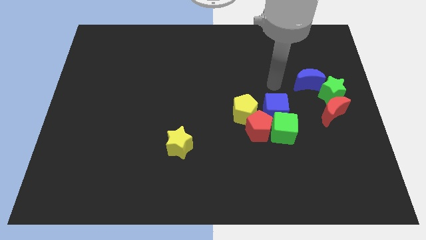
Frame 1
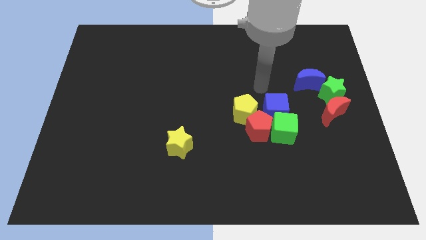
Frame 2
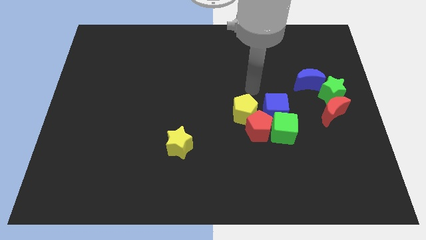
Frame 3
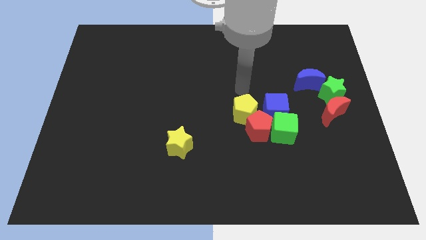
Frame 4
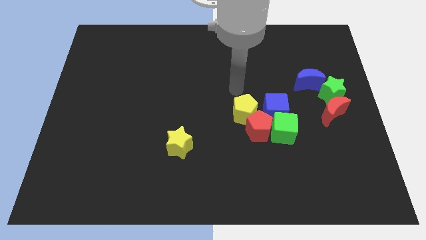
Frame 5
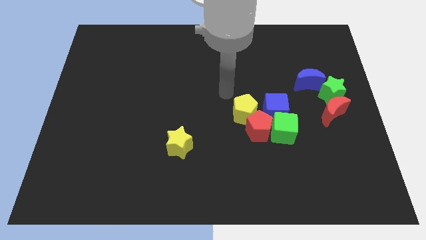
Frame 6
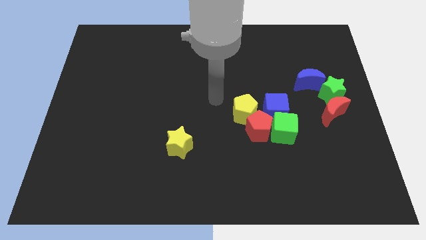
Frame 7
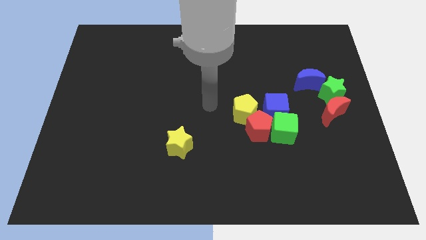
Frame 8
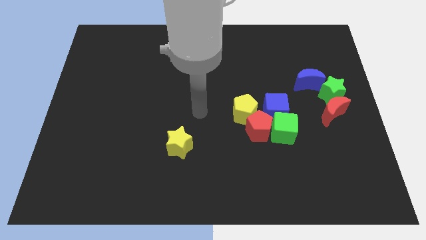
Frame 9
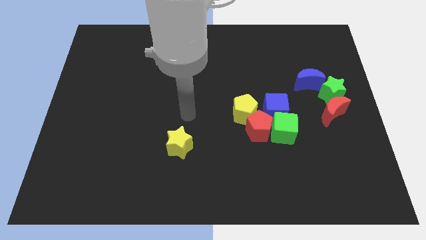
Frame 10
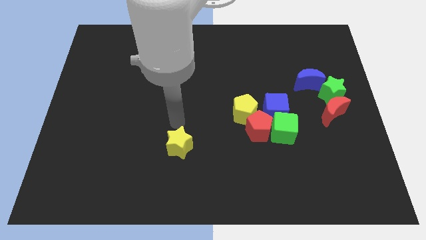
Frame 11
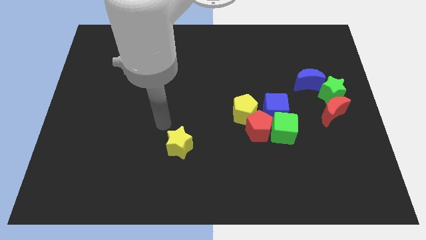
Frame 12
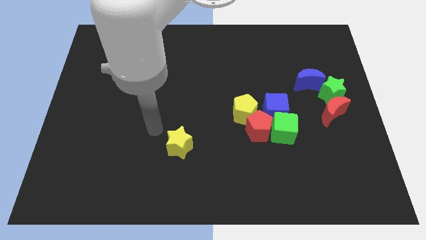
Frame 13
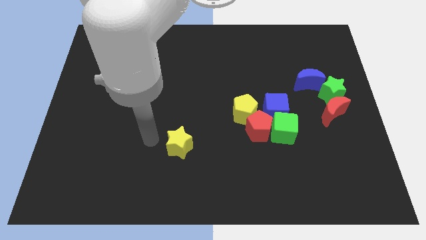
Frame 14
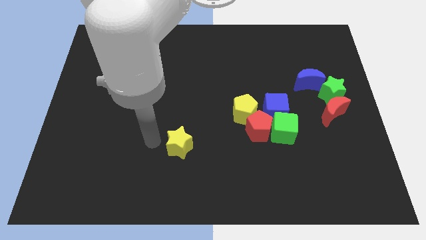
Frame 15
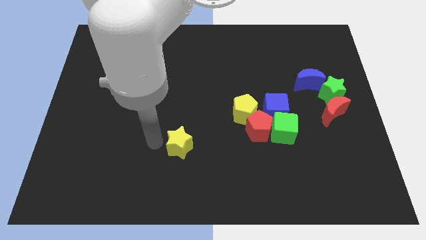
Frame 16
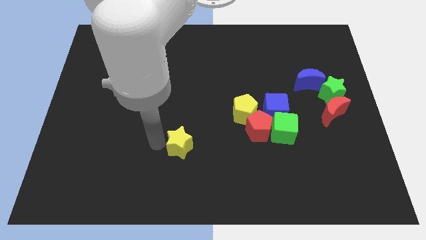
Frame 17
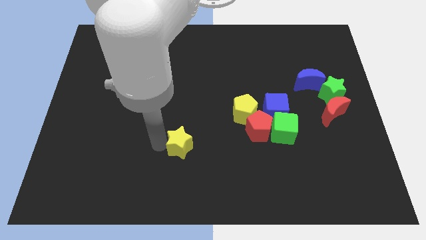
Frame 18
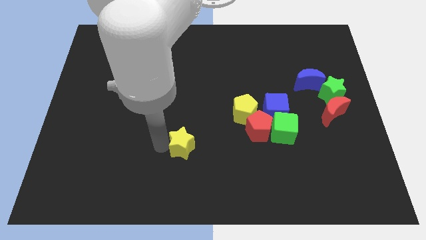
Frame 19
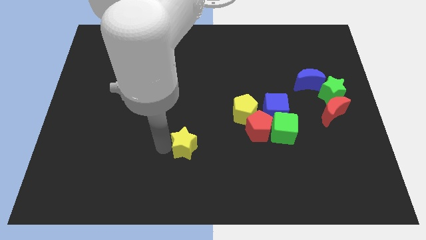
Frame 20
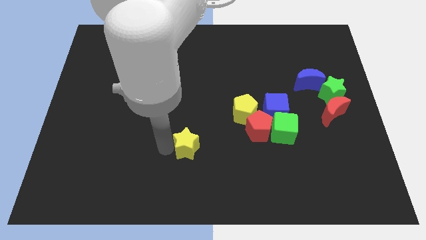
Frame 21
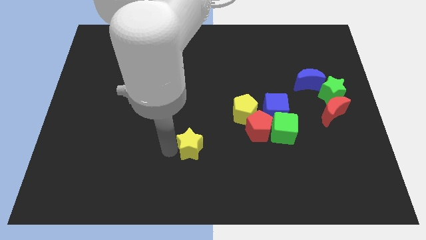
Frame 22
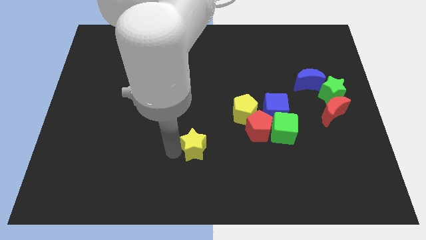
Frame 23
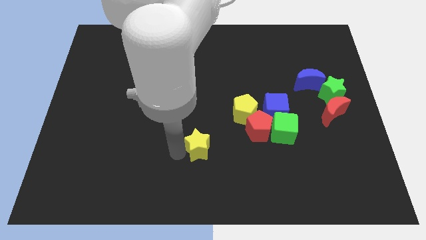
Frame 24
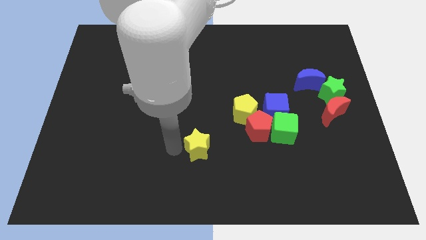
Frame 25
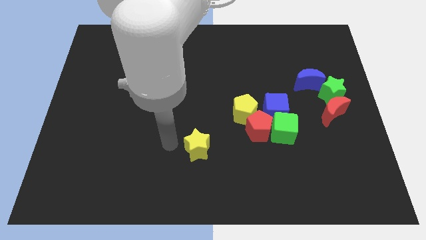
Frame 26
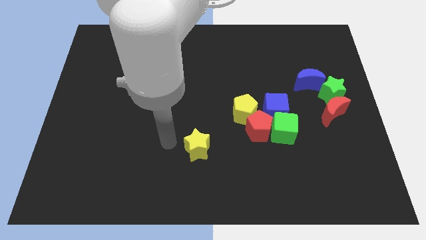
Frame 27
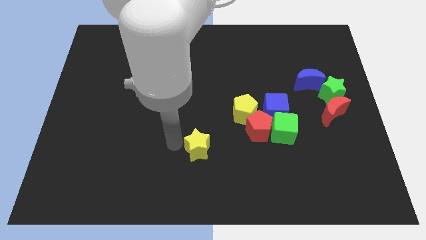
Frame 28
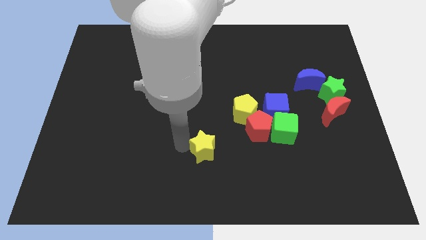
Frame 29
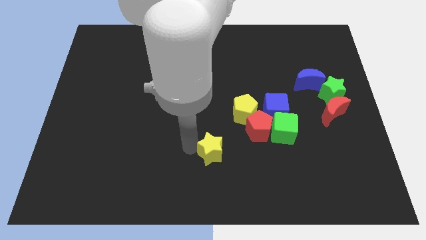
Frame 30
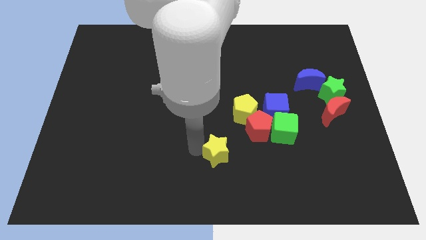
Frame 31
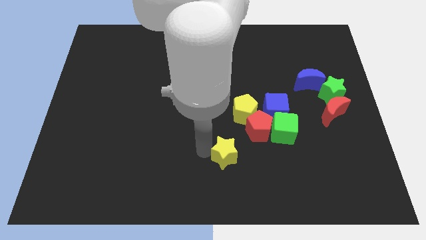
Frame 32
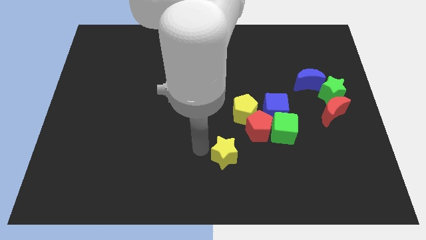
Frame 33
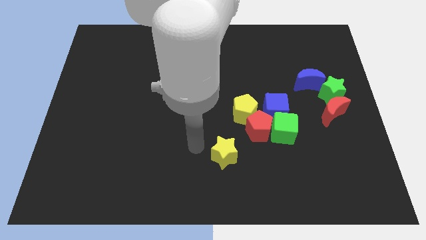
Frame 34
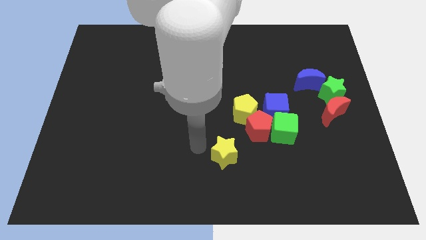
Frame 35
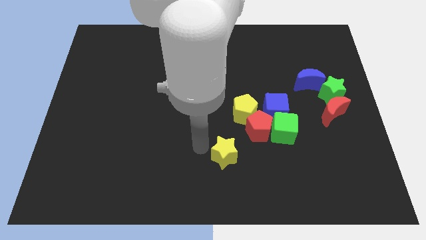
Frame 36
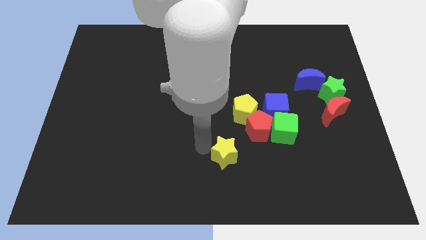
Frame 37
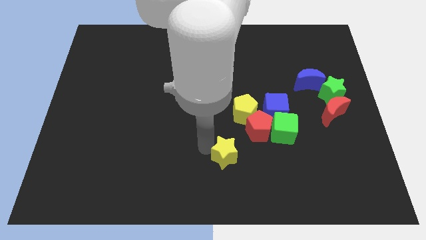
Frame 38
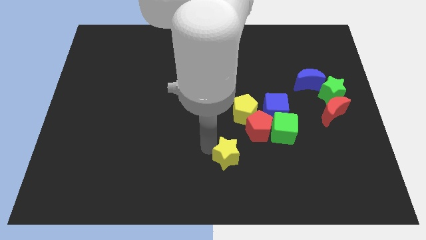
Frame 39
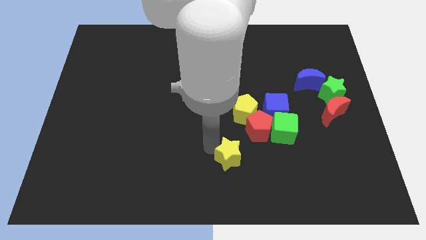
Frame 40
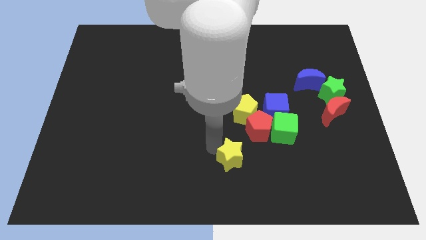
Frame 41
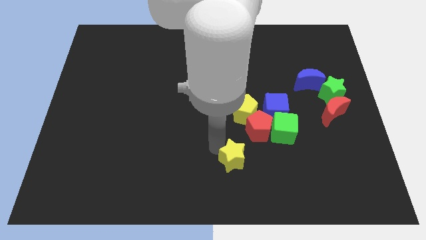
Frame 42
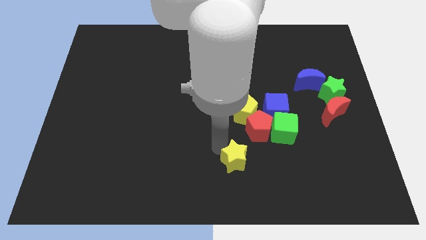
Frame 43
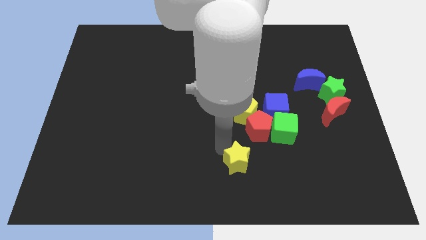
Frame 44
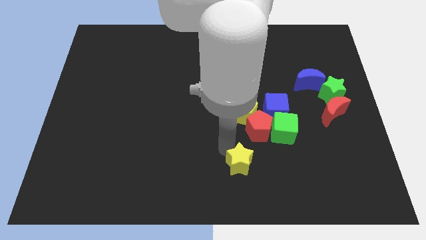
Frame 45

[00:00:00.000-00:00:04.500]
slide the yellow star below the red pentagon

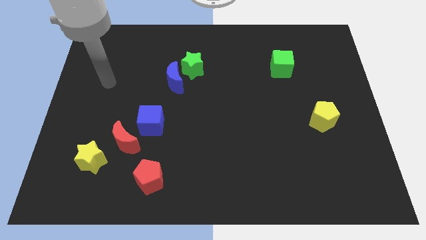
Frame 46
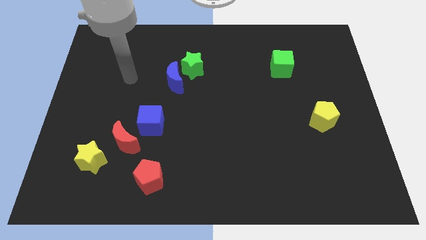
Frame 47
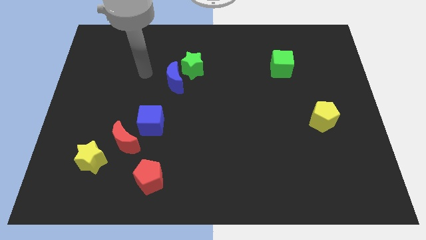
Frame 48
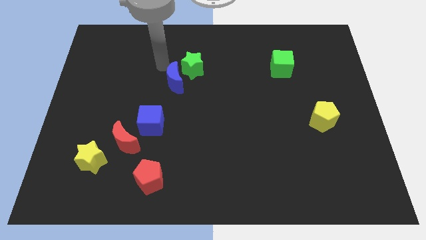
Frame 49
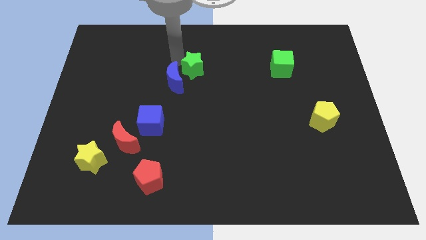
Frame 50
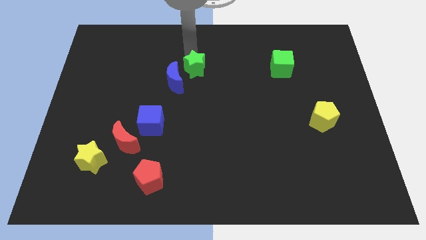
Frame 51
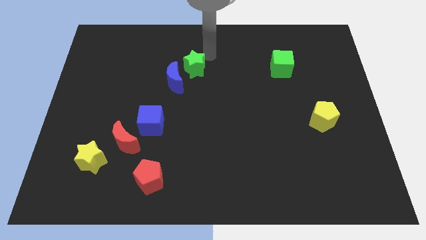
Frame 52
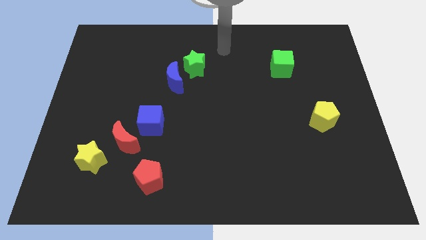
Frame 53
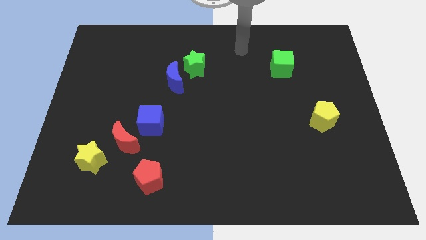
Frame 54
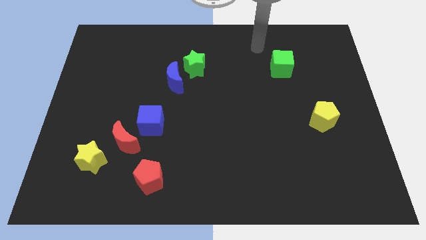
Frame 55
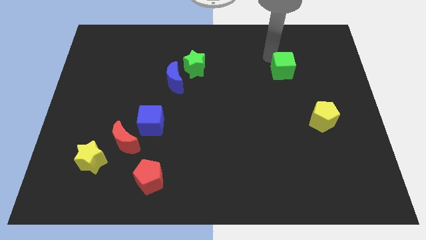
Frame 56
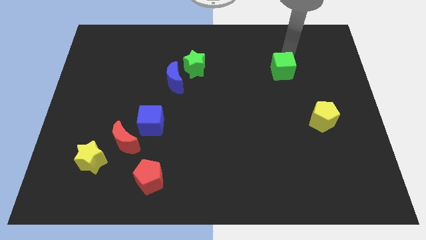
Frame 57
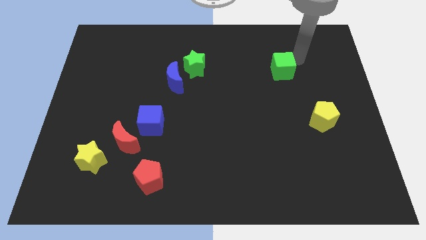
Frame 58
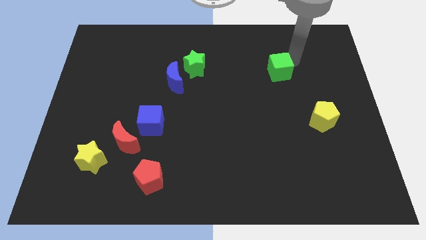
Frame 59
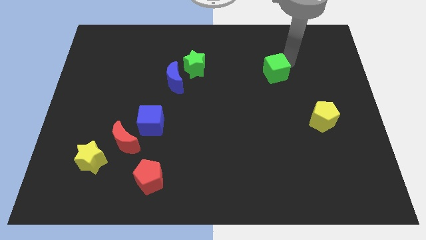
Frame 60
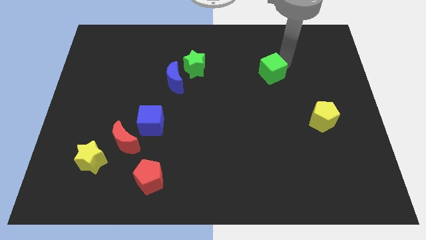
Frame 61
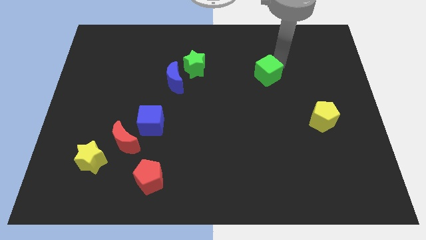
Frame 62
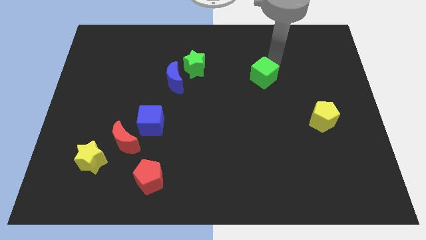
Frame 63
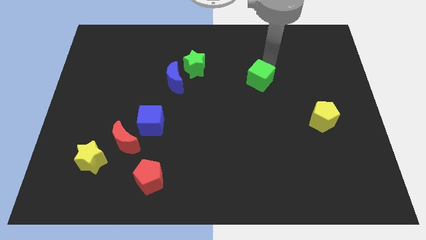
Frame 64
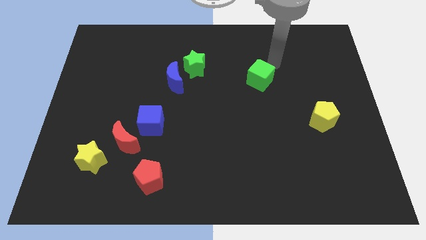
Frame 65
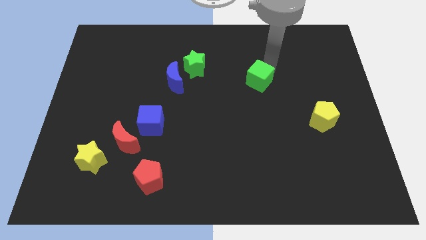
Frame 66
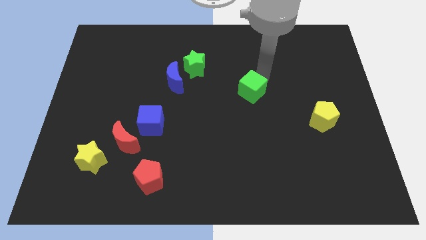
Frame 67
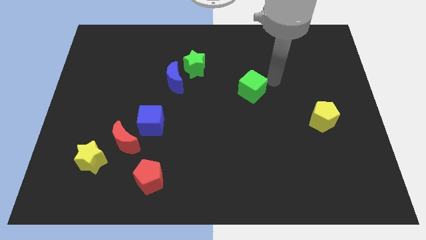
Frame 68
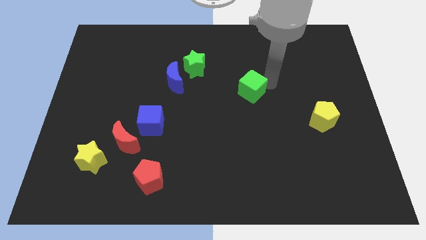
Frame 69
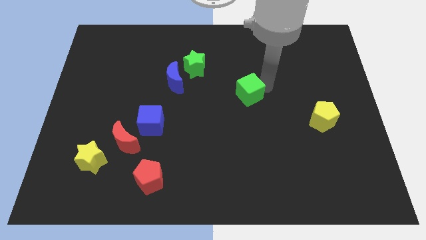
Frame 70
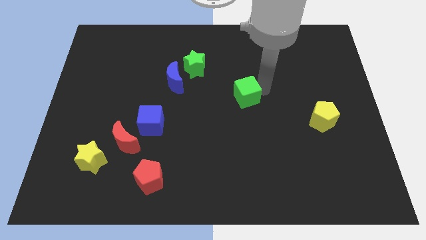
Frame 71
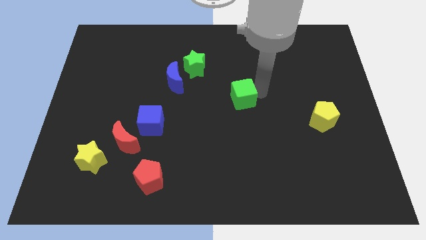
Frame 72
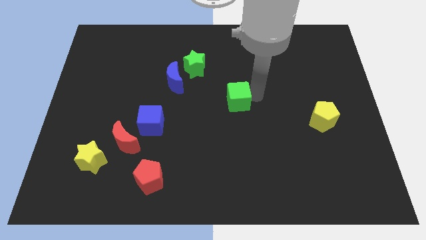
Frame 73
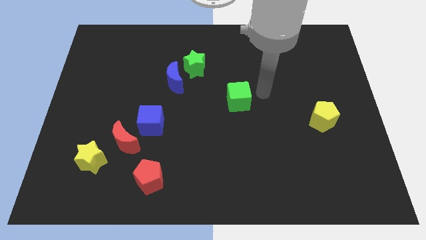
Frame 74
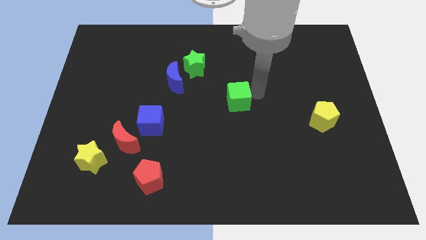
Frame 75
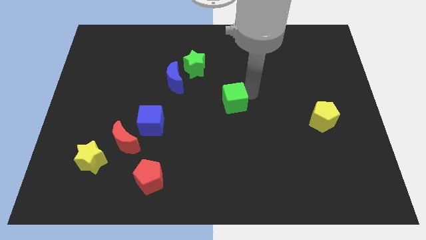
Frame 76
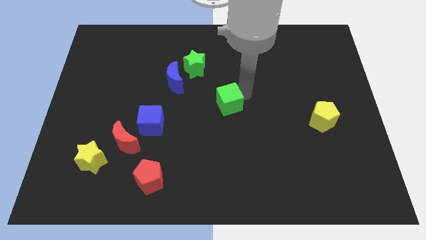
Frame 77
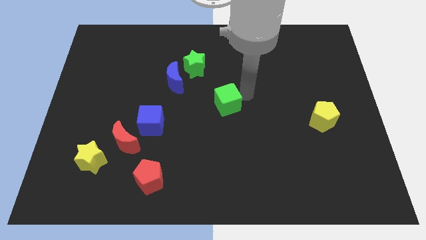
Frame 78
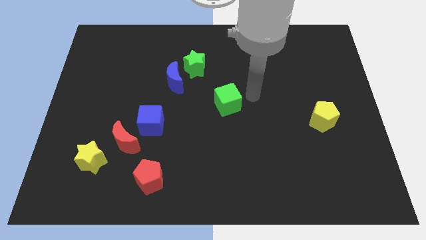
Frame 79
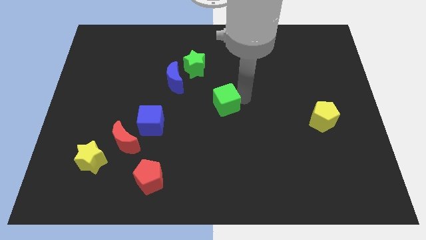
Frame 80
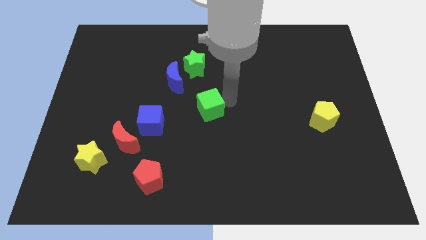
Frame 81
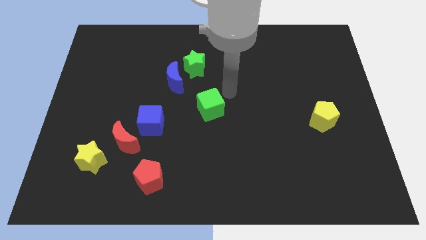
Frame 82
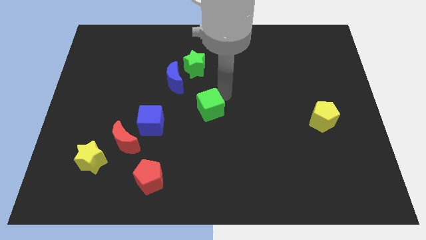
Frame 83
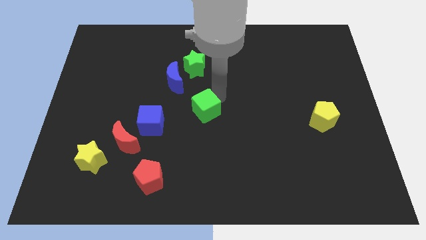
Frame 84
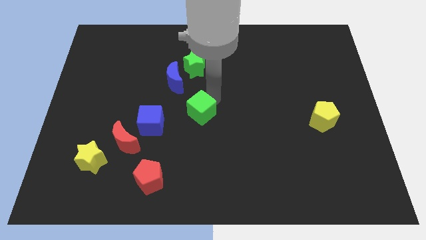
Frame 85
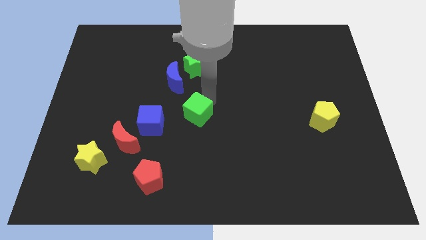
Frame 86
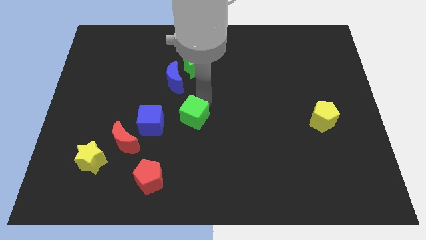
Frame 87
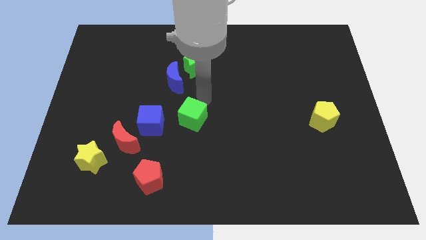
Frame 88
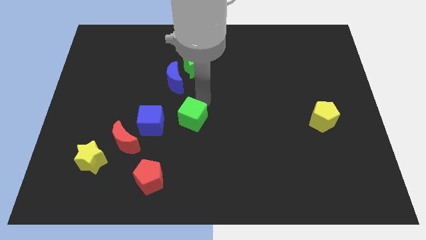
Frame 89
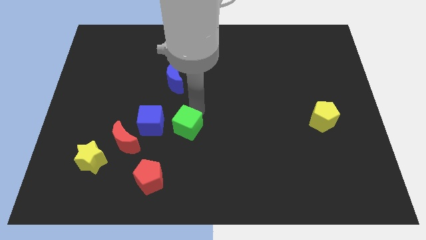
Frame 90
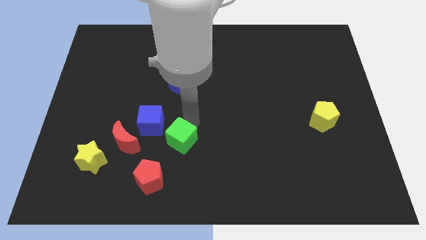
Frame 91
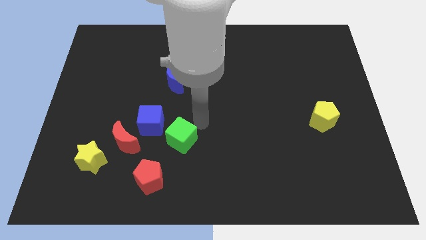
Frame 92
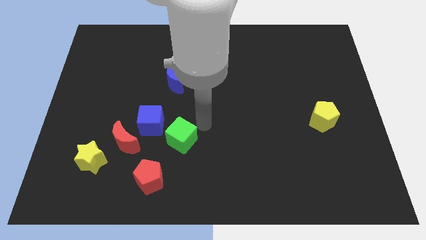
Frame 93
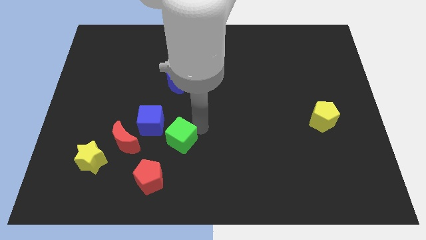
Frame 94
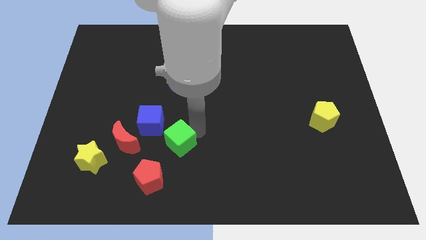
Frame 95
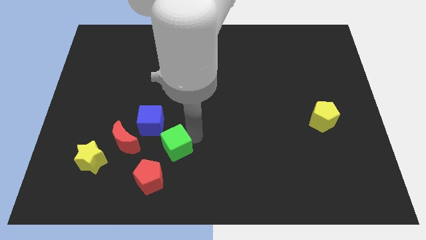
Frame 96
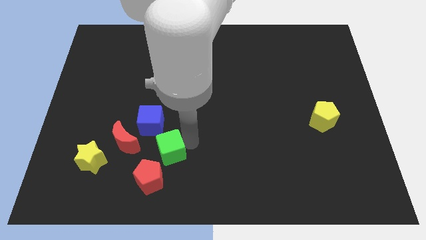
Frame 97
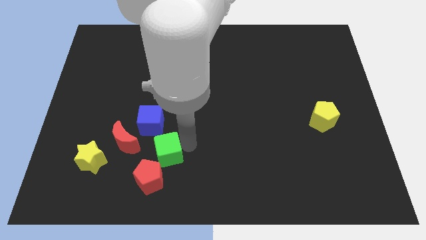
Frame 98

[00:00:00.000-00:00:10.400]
put the green cube to the right of the yellow star
